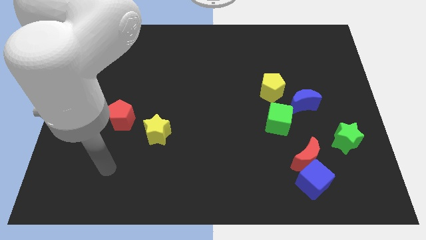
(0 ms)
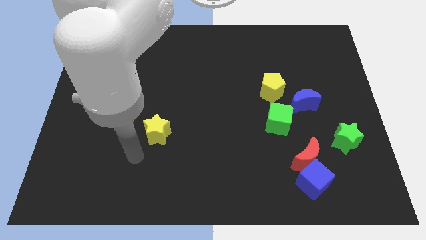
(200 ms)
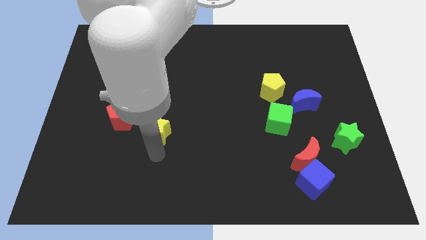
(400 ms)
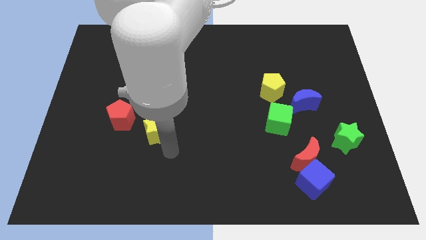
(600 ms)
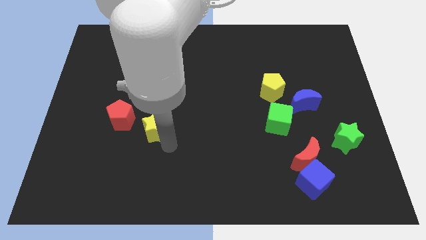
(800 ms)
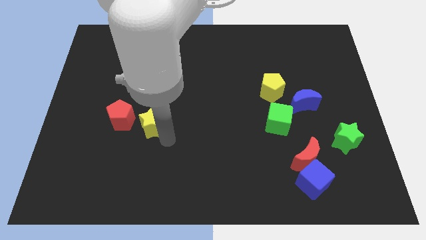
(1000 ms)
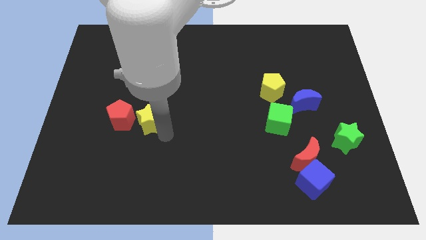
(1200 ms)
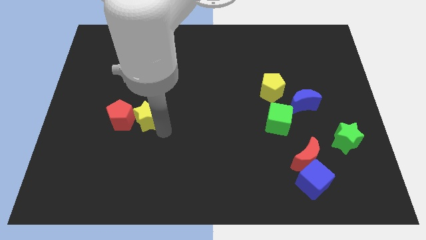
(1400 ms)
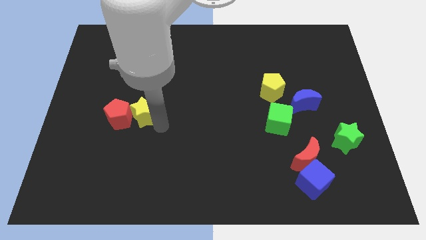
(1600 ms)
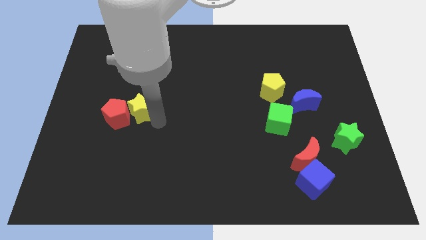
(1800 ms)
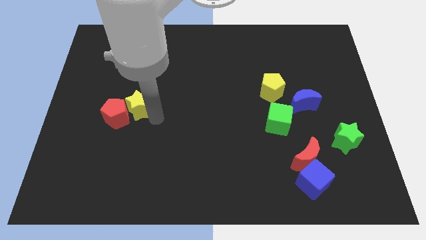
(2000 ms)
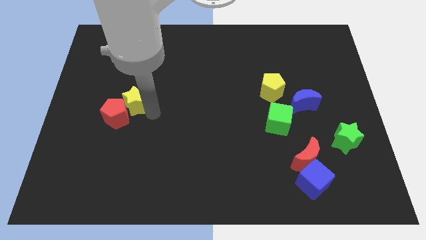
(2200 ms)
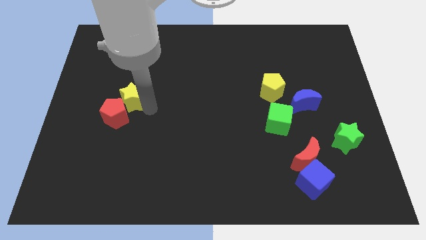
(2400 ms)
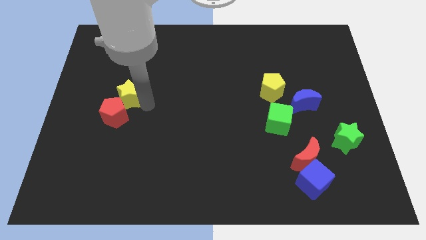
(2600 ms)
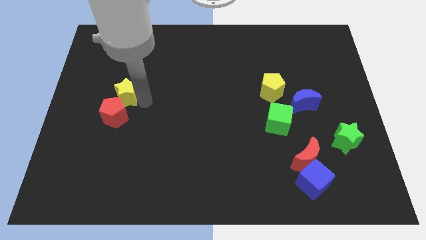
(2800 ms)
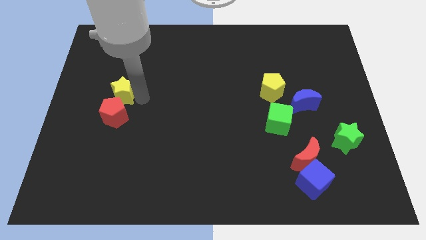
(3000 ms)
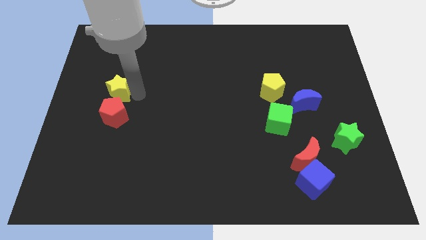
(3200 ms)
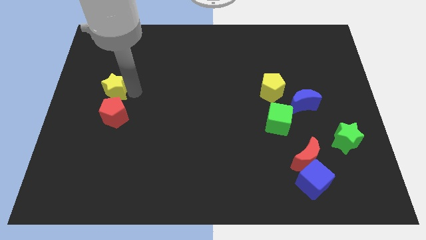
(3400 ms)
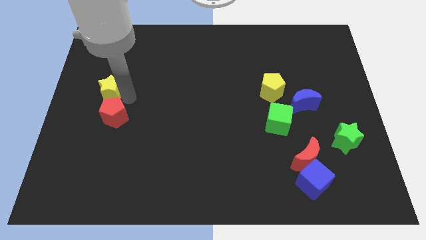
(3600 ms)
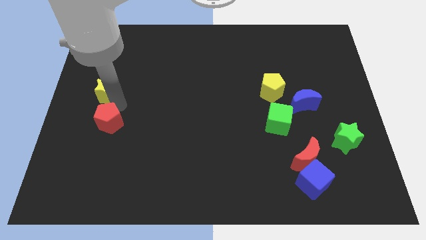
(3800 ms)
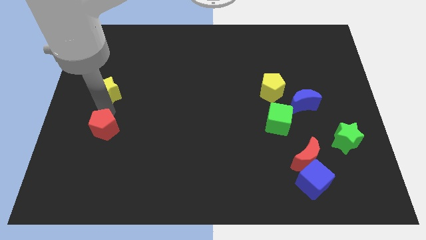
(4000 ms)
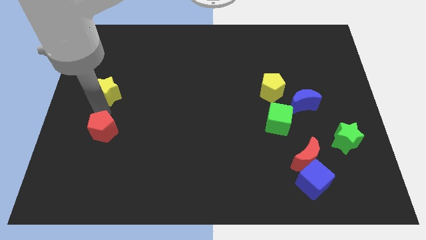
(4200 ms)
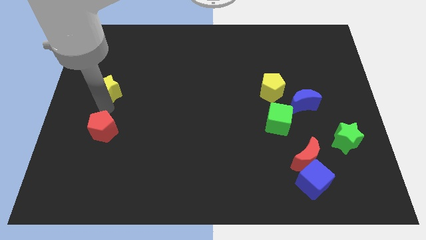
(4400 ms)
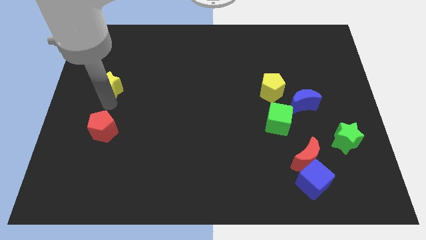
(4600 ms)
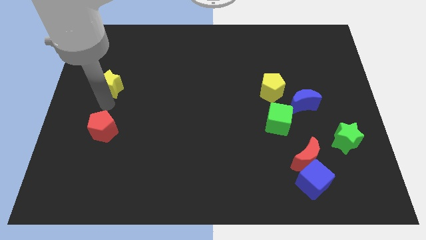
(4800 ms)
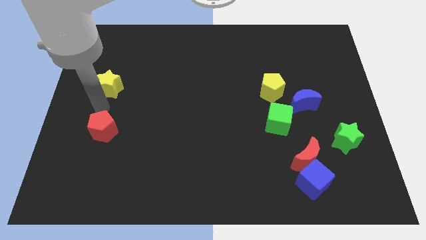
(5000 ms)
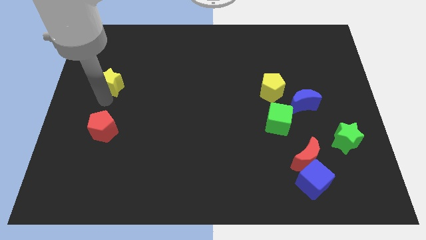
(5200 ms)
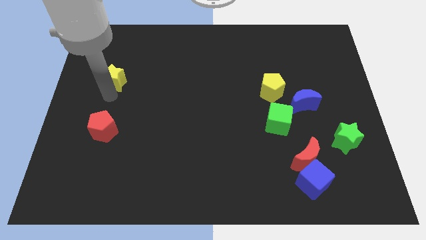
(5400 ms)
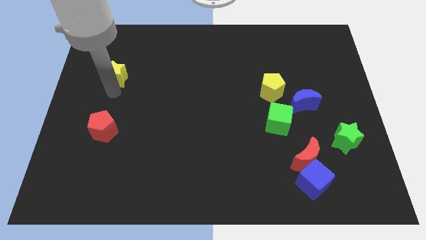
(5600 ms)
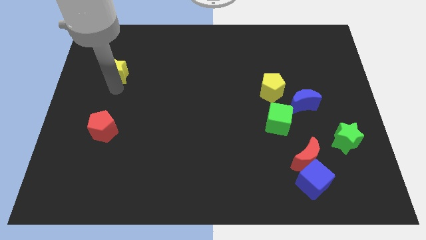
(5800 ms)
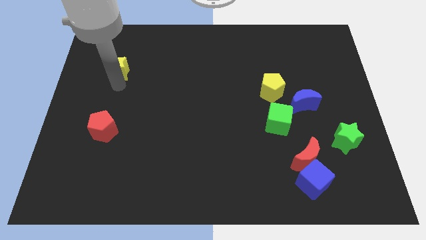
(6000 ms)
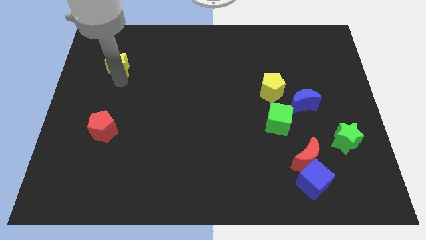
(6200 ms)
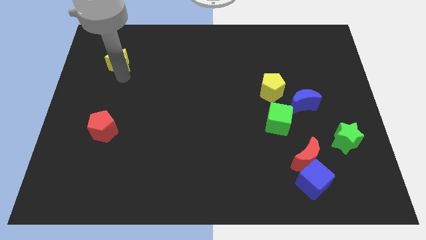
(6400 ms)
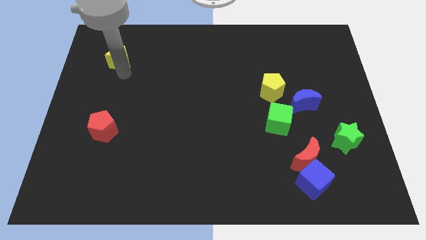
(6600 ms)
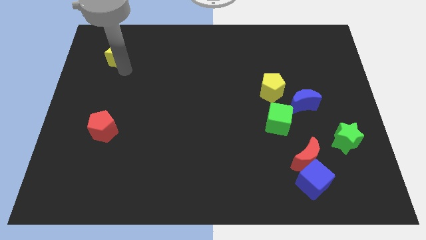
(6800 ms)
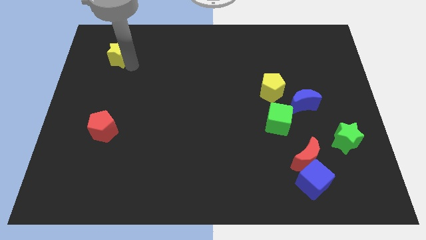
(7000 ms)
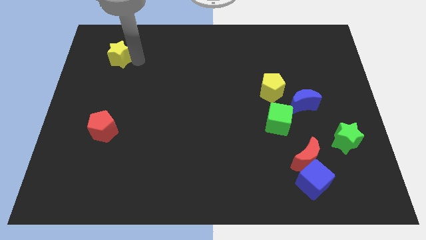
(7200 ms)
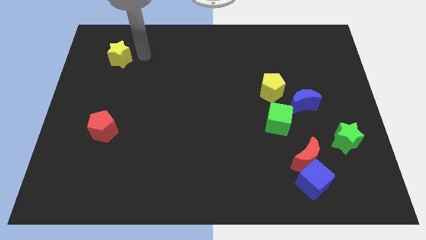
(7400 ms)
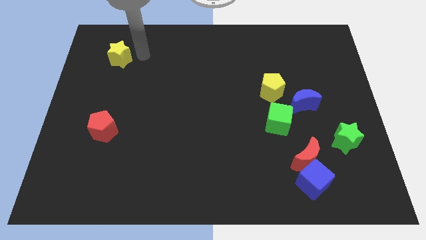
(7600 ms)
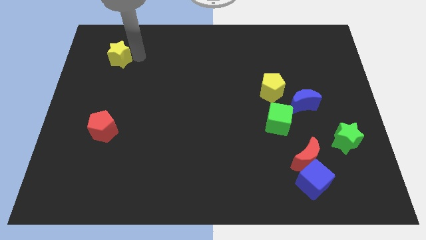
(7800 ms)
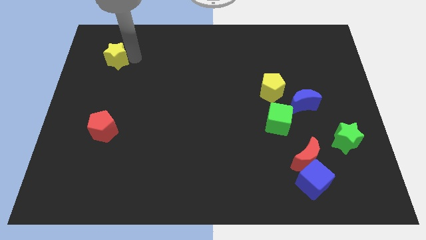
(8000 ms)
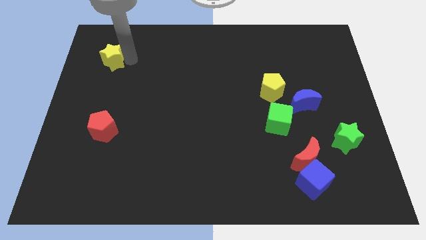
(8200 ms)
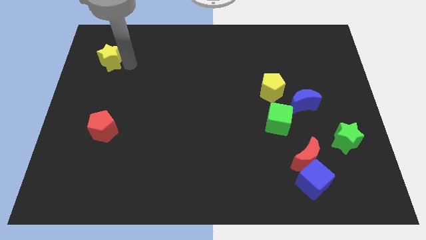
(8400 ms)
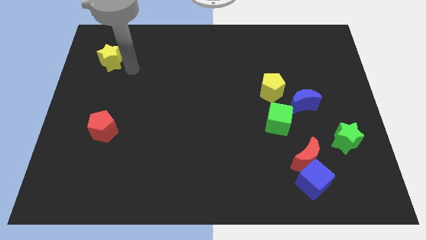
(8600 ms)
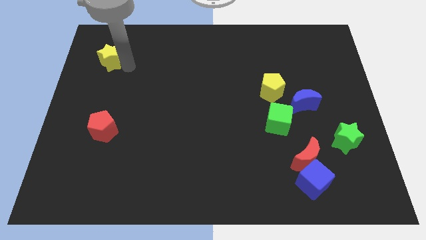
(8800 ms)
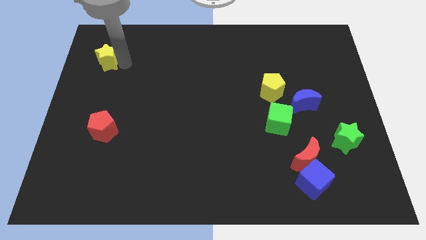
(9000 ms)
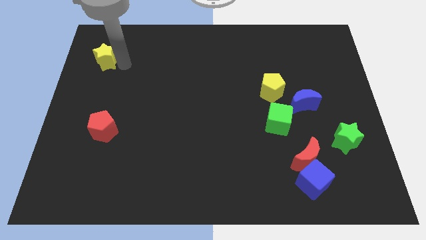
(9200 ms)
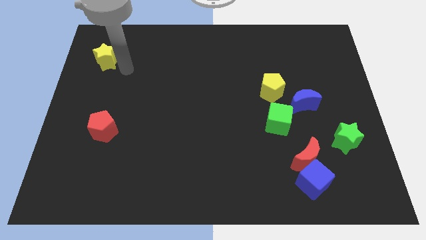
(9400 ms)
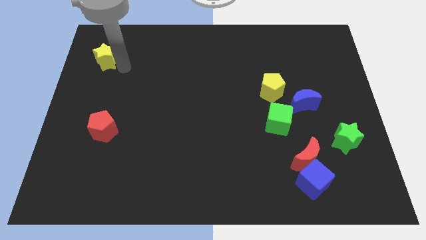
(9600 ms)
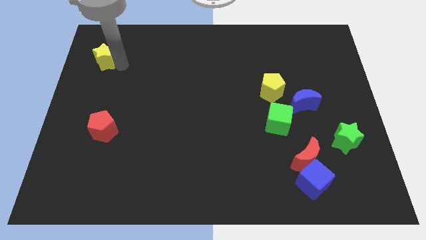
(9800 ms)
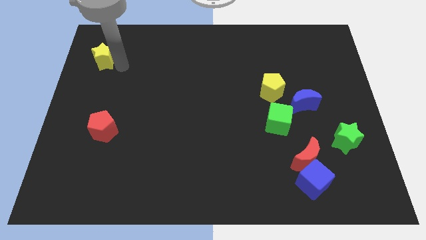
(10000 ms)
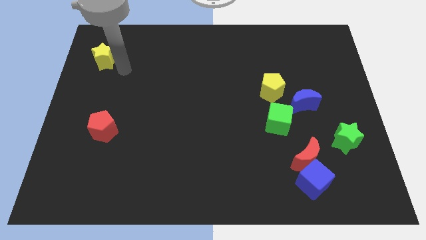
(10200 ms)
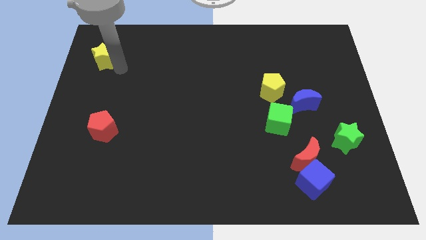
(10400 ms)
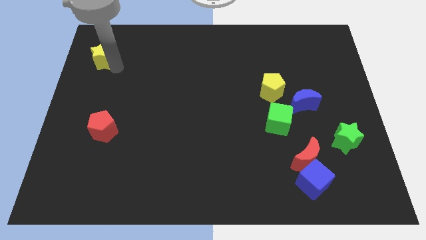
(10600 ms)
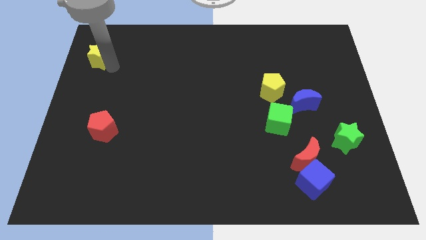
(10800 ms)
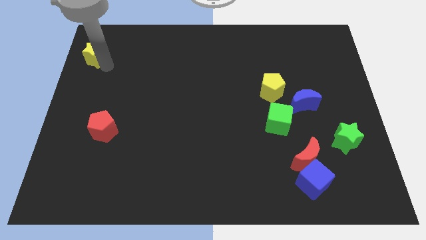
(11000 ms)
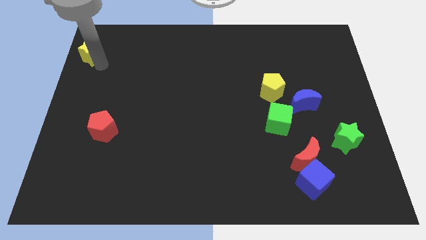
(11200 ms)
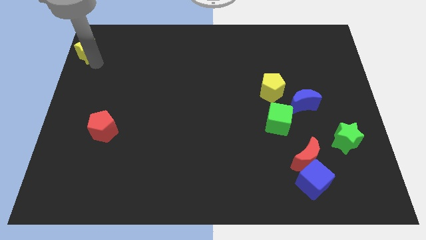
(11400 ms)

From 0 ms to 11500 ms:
put the yellow star to the top left corner

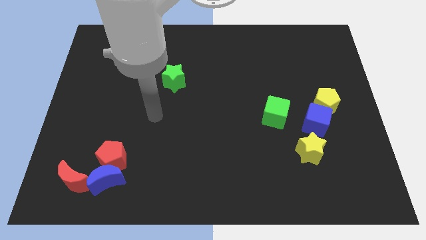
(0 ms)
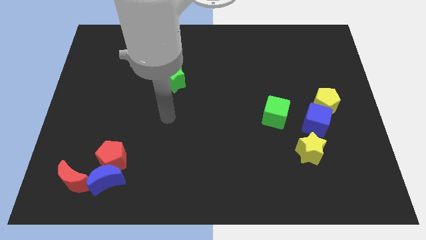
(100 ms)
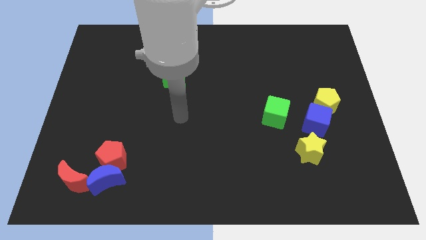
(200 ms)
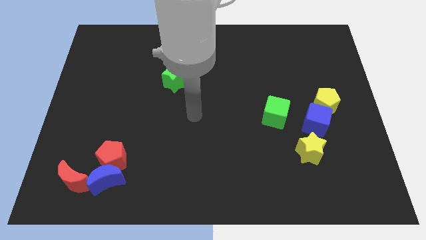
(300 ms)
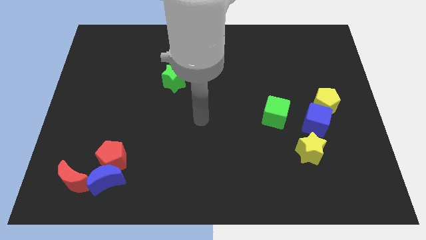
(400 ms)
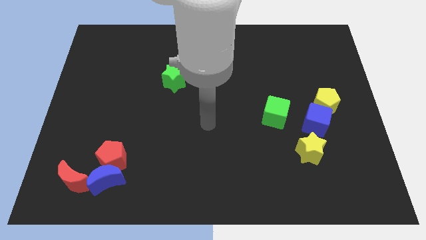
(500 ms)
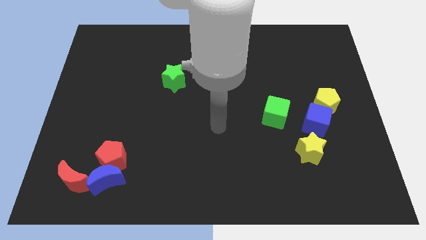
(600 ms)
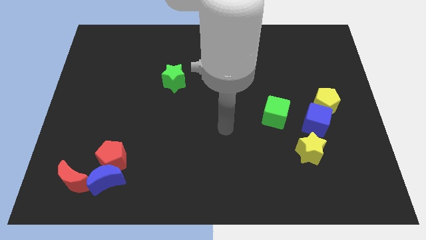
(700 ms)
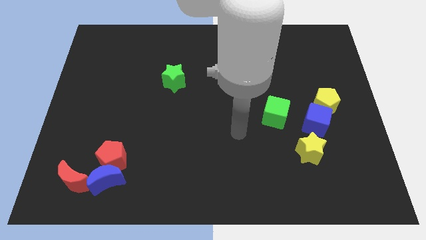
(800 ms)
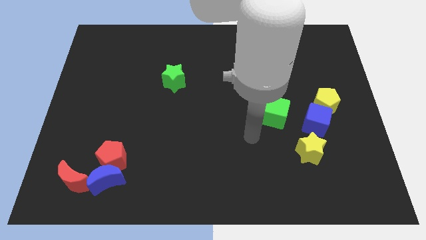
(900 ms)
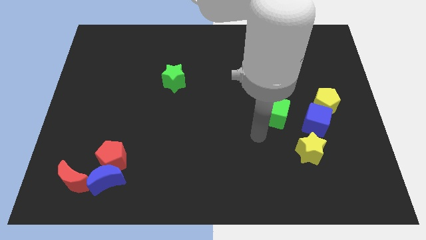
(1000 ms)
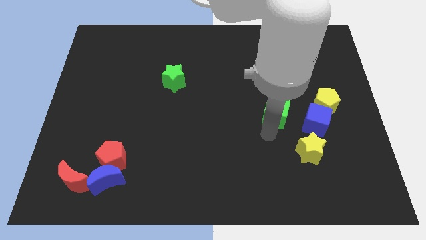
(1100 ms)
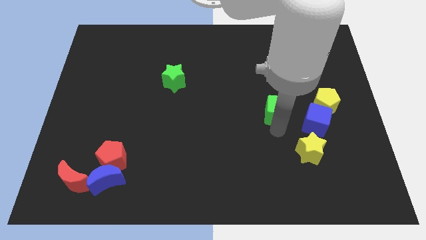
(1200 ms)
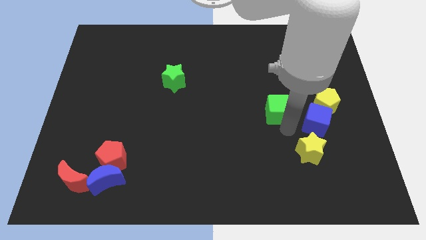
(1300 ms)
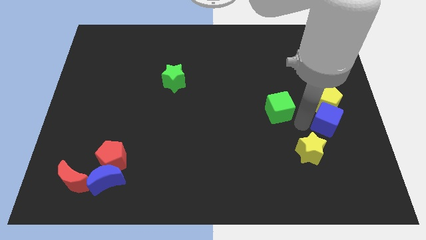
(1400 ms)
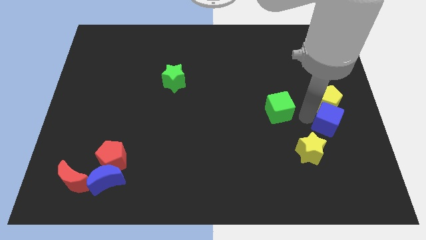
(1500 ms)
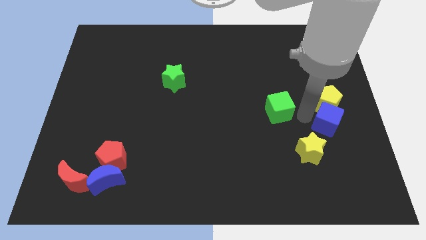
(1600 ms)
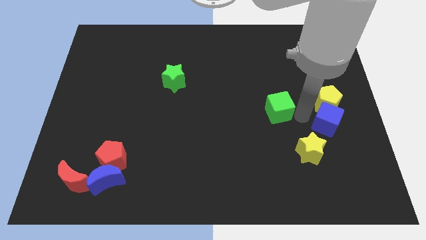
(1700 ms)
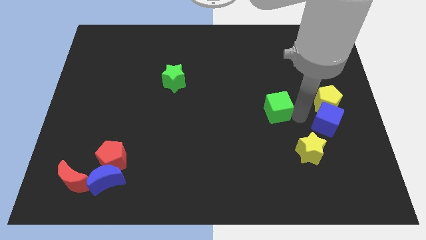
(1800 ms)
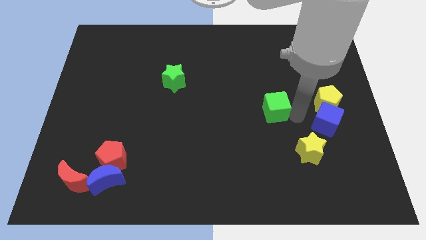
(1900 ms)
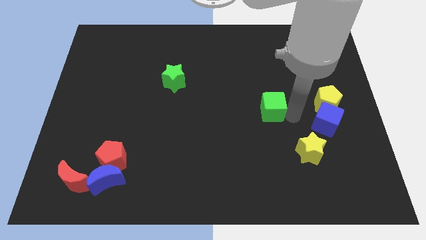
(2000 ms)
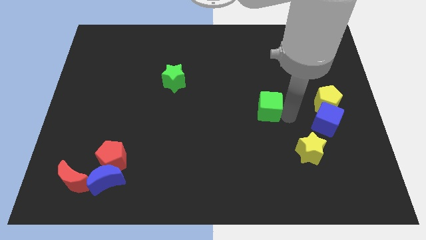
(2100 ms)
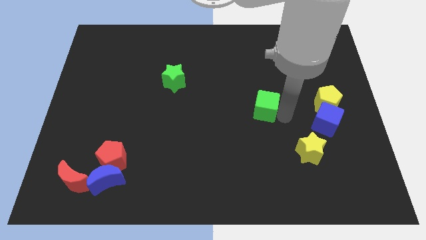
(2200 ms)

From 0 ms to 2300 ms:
move the green cube to the center
